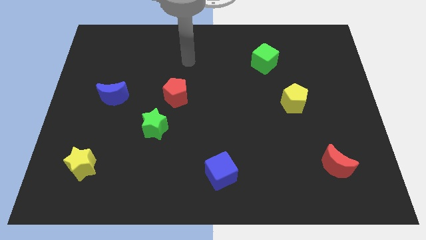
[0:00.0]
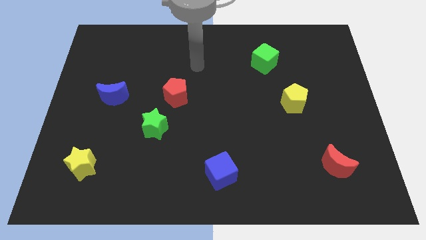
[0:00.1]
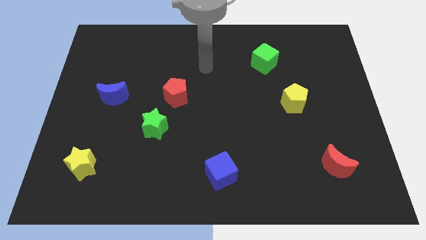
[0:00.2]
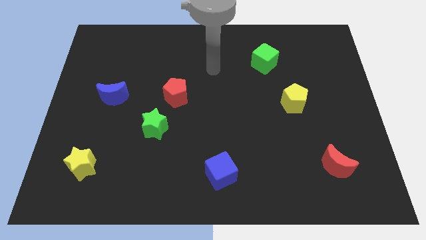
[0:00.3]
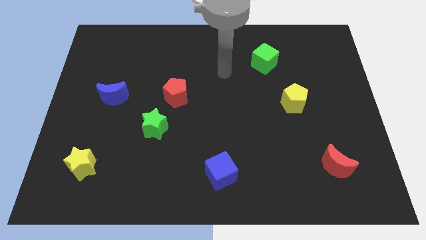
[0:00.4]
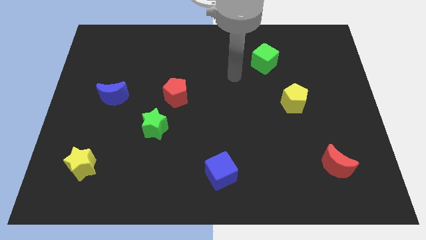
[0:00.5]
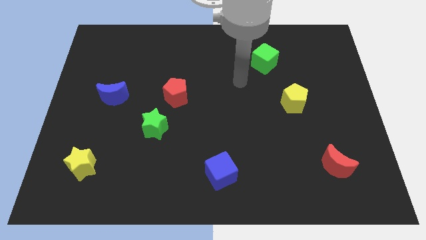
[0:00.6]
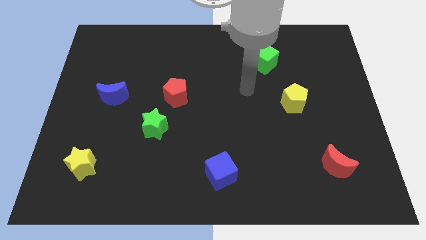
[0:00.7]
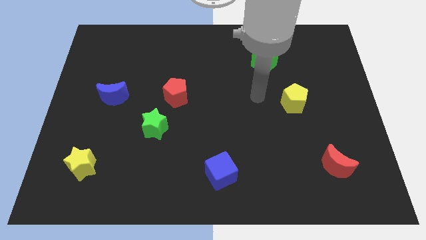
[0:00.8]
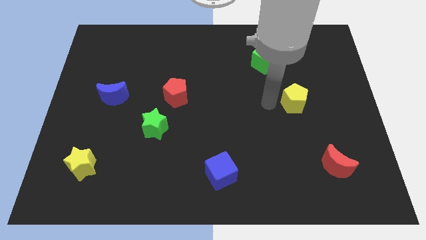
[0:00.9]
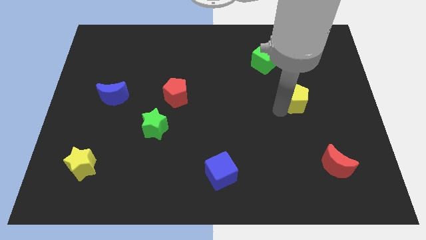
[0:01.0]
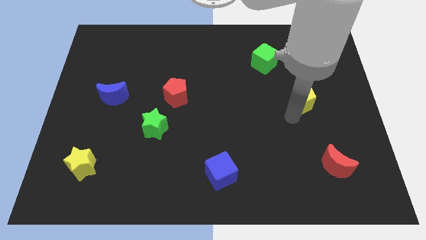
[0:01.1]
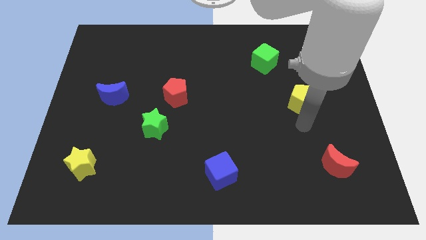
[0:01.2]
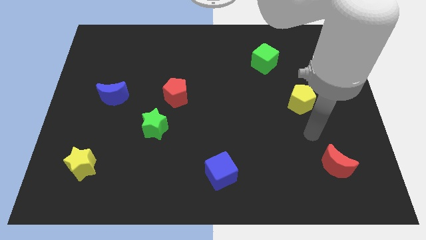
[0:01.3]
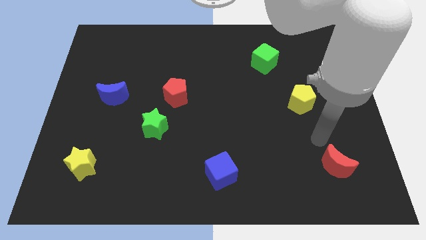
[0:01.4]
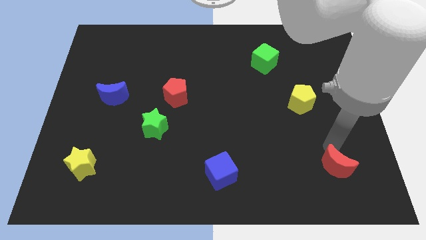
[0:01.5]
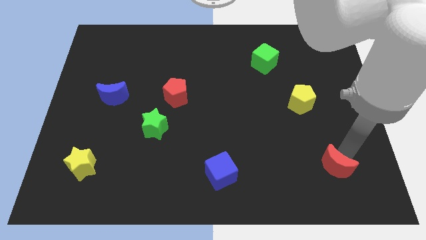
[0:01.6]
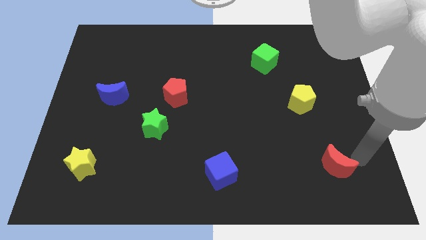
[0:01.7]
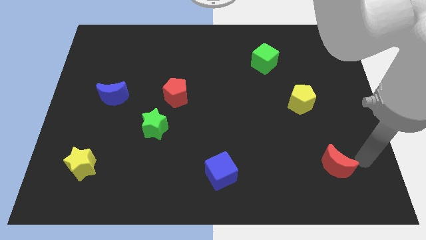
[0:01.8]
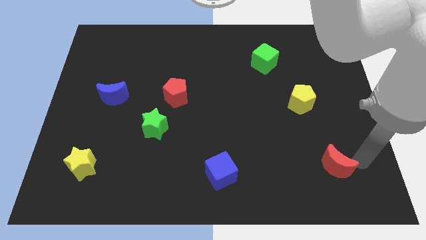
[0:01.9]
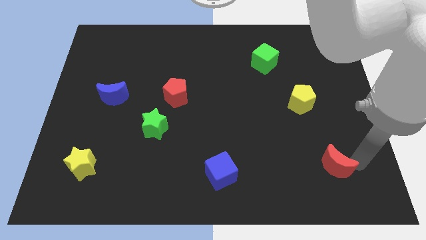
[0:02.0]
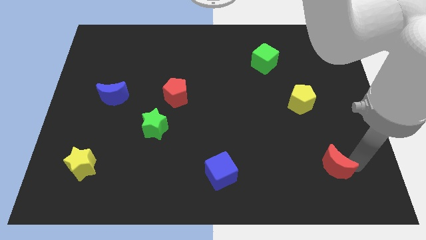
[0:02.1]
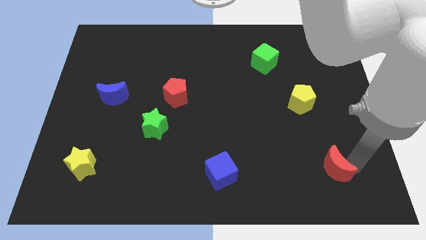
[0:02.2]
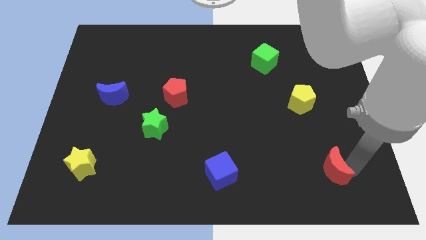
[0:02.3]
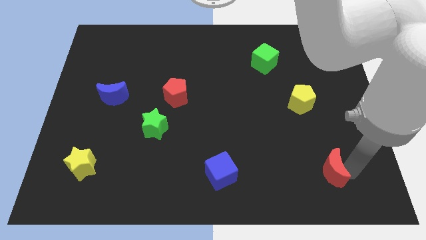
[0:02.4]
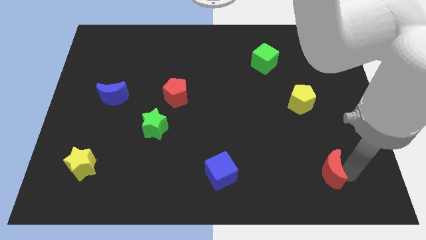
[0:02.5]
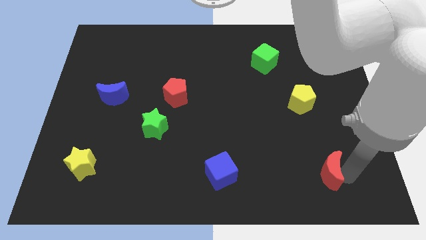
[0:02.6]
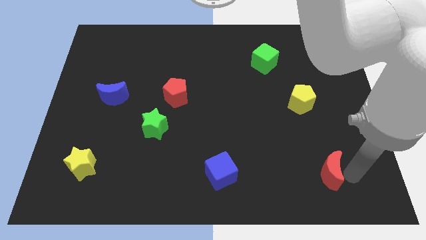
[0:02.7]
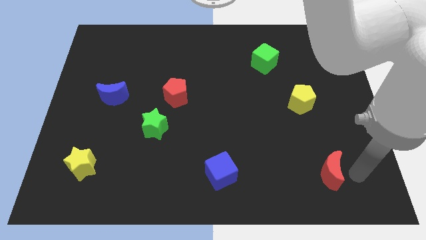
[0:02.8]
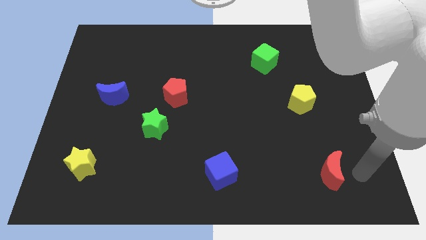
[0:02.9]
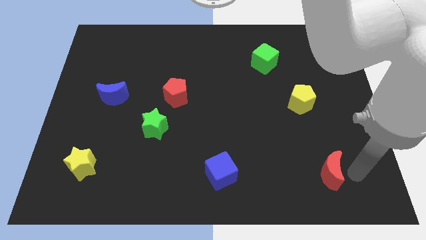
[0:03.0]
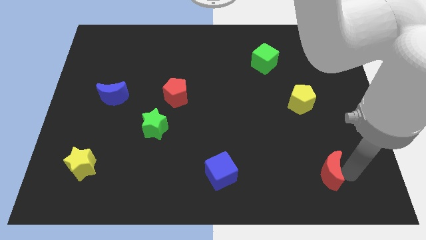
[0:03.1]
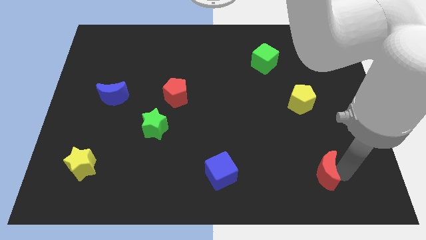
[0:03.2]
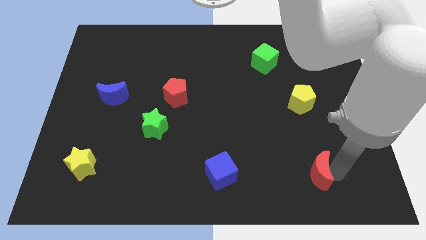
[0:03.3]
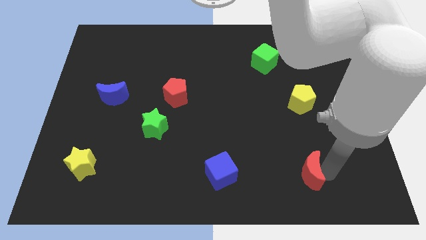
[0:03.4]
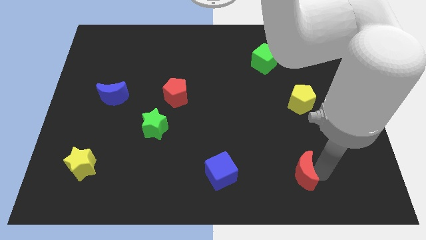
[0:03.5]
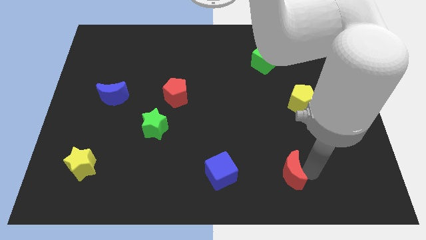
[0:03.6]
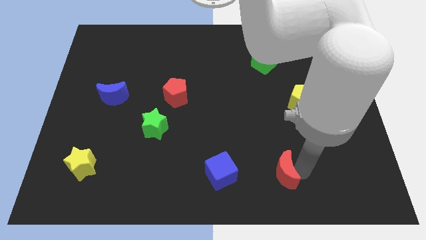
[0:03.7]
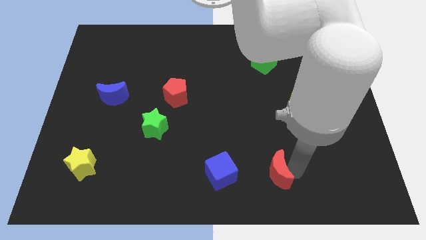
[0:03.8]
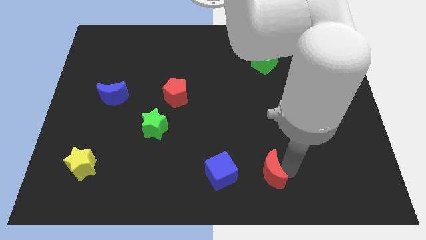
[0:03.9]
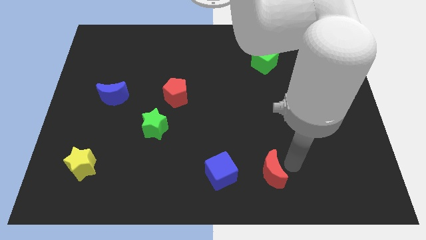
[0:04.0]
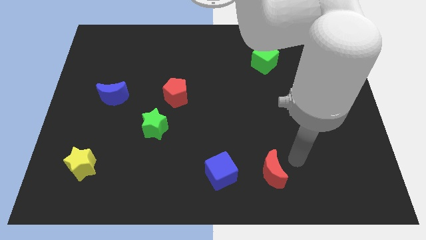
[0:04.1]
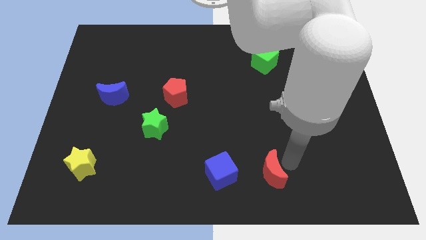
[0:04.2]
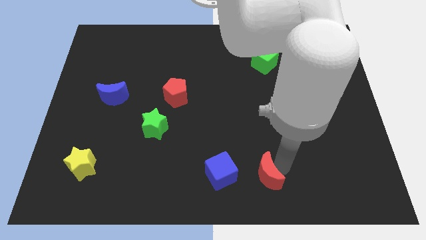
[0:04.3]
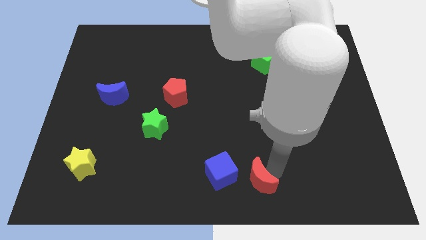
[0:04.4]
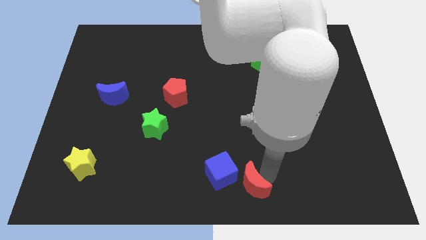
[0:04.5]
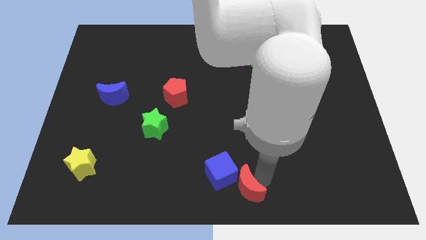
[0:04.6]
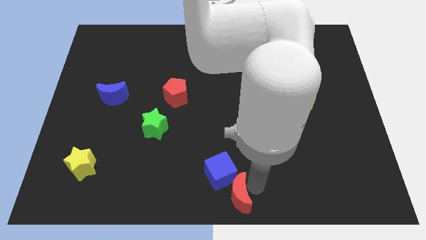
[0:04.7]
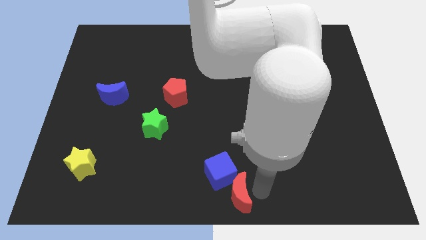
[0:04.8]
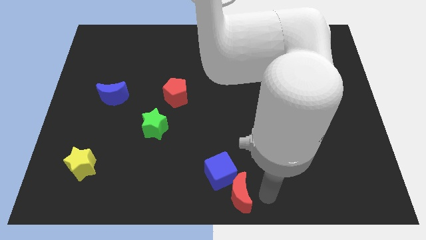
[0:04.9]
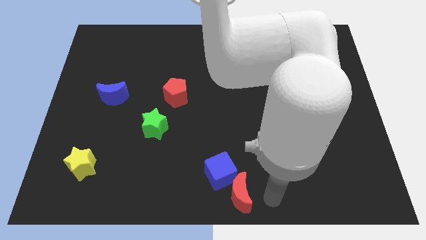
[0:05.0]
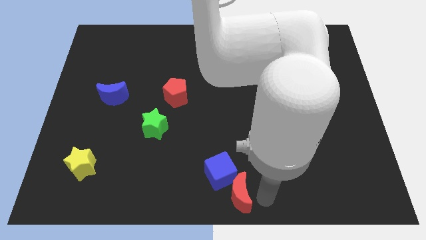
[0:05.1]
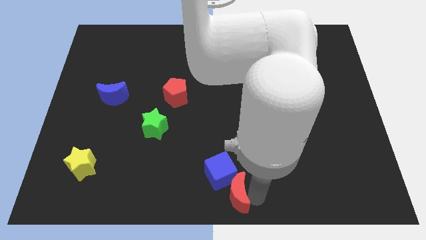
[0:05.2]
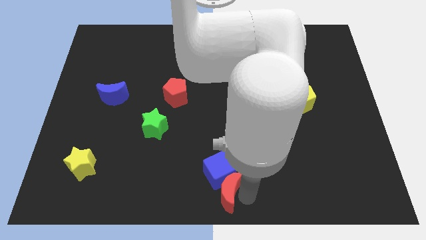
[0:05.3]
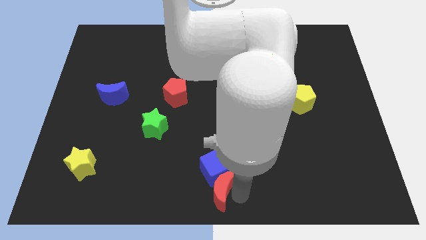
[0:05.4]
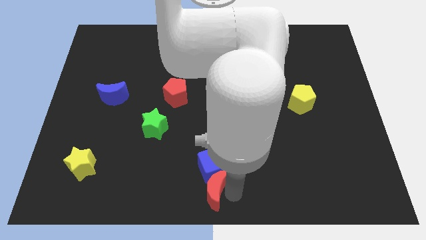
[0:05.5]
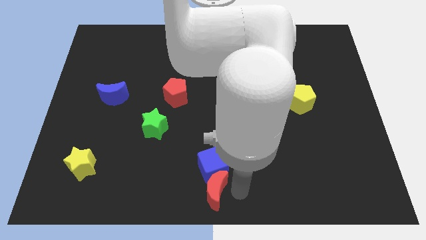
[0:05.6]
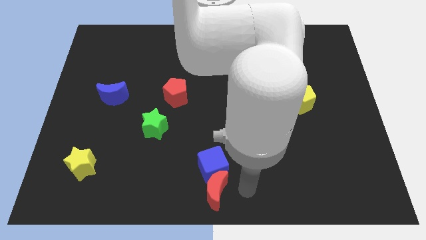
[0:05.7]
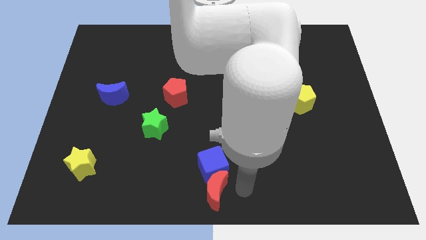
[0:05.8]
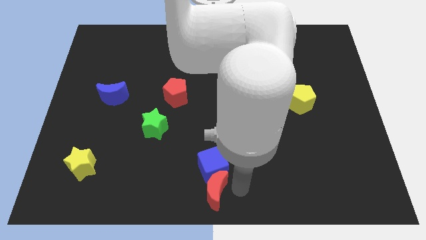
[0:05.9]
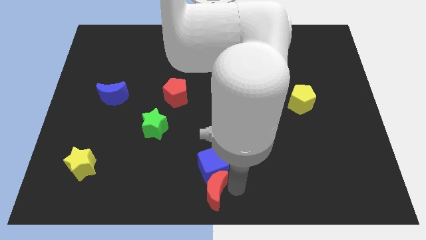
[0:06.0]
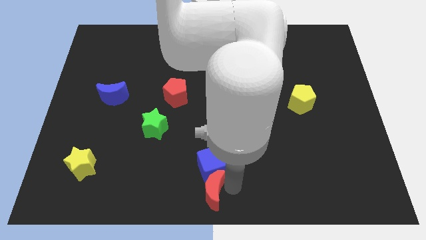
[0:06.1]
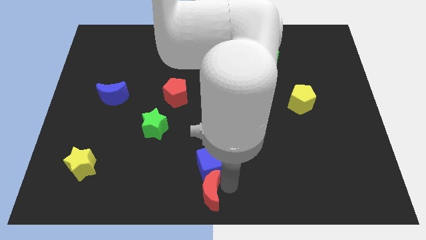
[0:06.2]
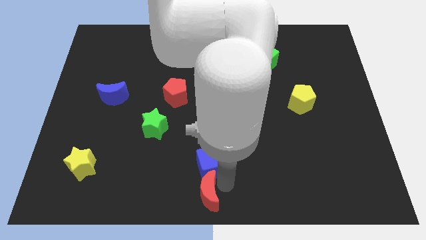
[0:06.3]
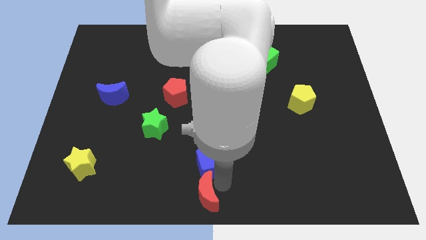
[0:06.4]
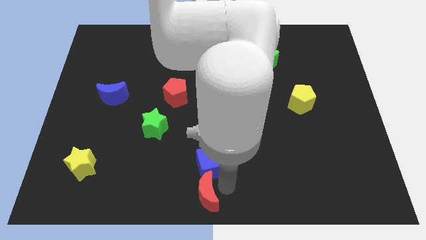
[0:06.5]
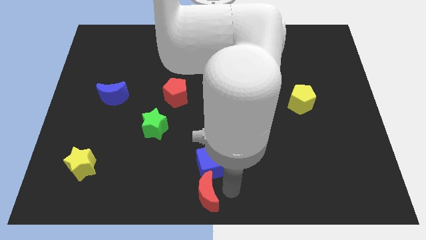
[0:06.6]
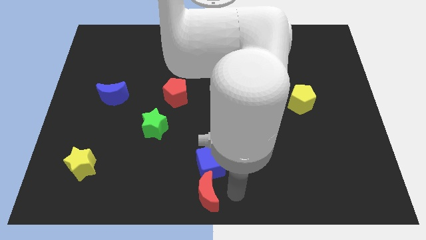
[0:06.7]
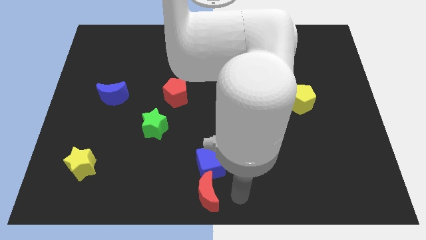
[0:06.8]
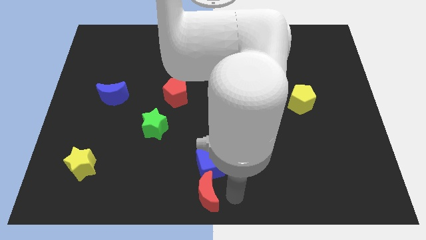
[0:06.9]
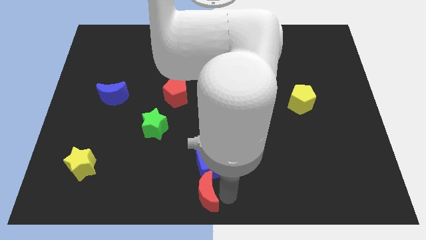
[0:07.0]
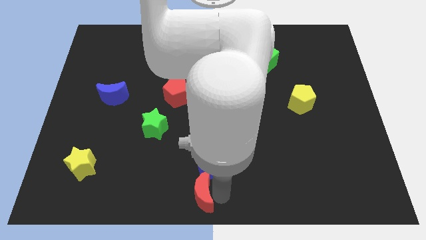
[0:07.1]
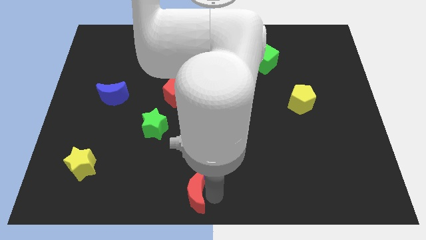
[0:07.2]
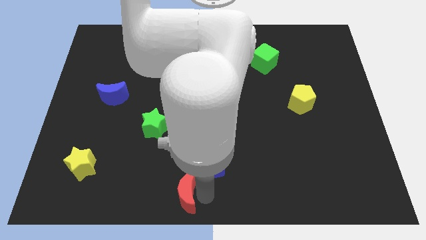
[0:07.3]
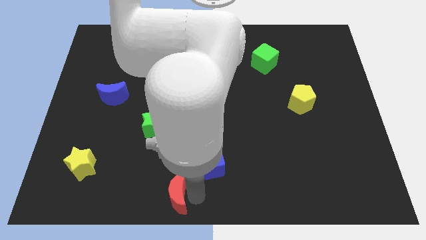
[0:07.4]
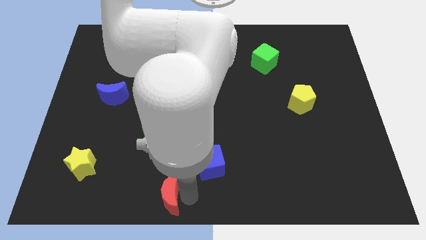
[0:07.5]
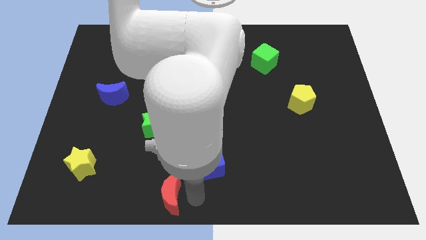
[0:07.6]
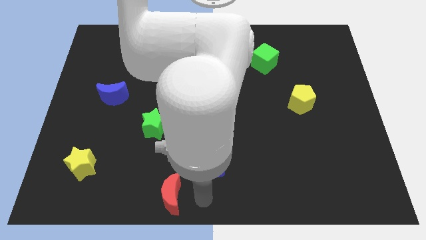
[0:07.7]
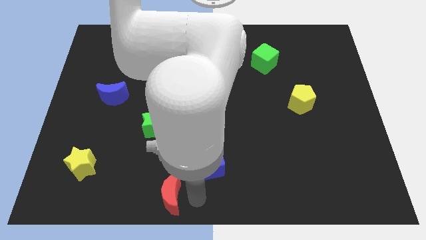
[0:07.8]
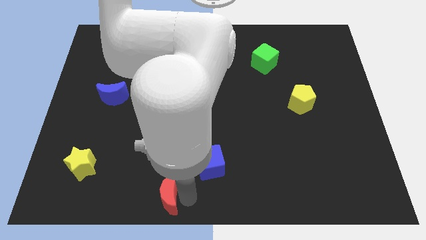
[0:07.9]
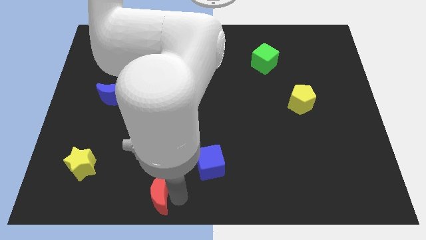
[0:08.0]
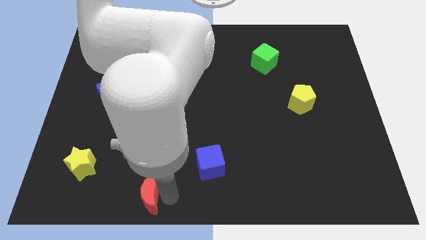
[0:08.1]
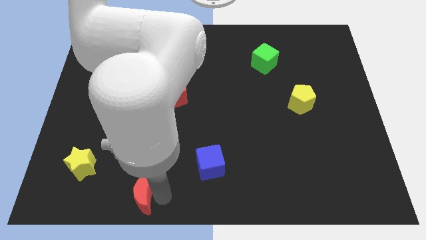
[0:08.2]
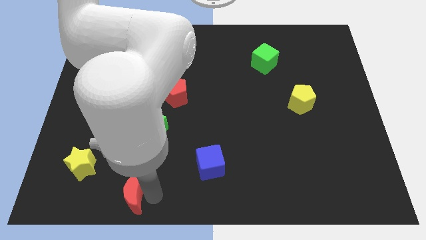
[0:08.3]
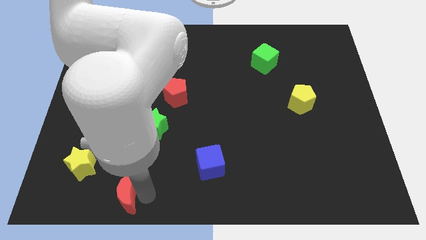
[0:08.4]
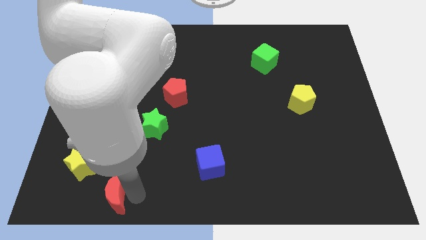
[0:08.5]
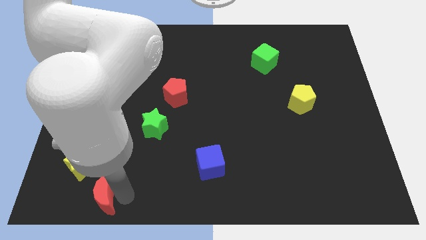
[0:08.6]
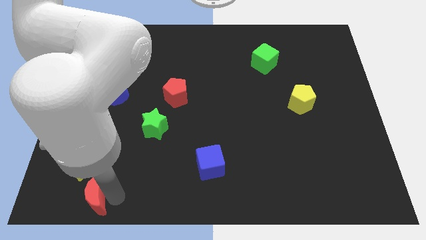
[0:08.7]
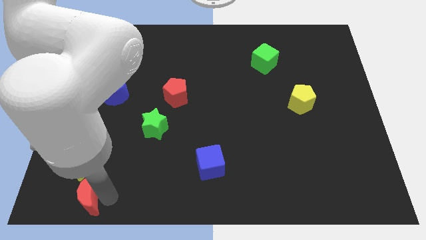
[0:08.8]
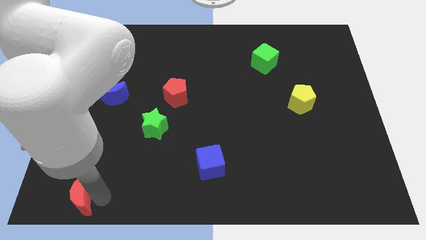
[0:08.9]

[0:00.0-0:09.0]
put the red moon to the bottom left
